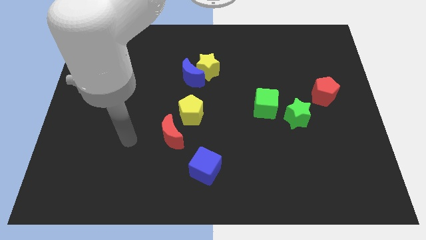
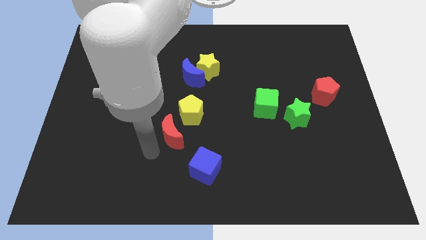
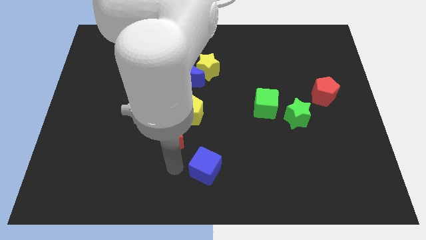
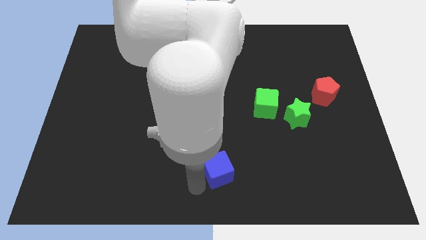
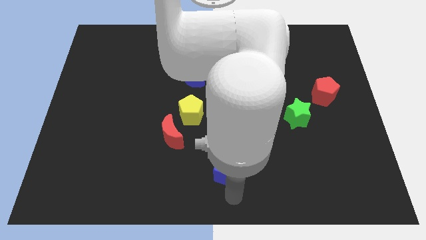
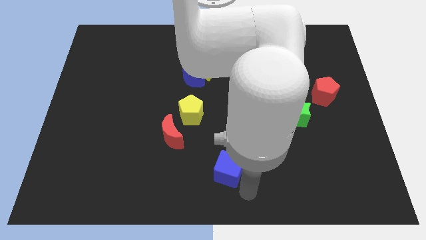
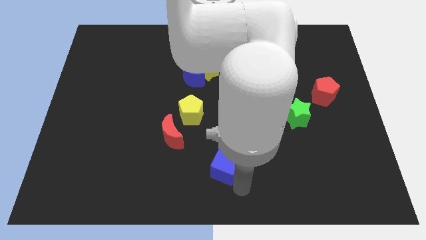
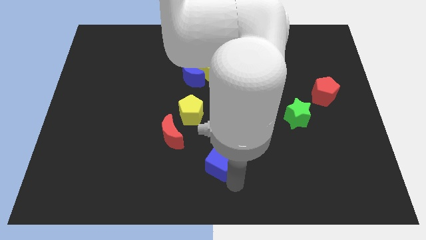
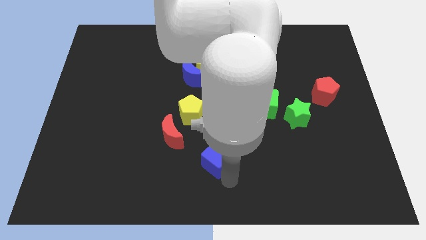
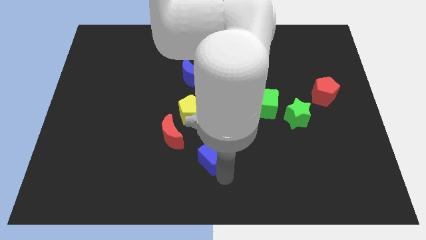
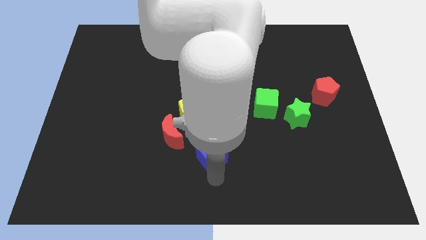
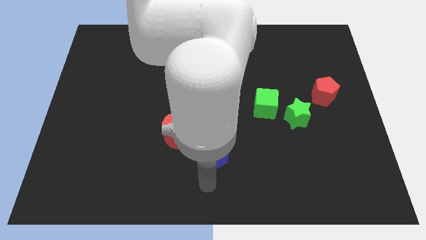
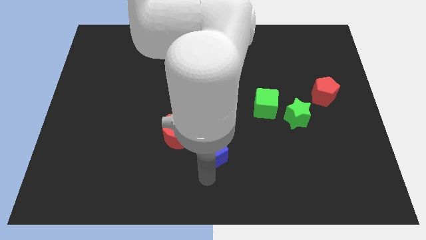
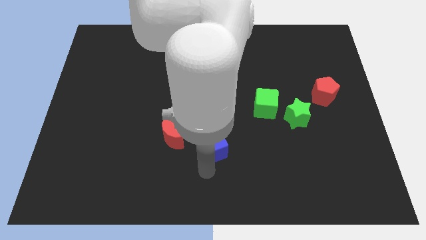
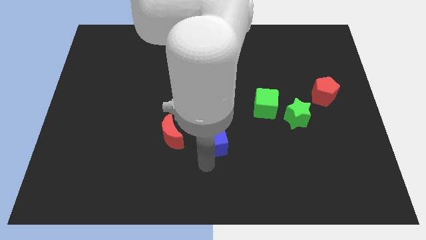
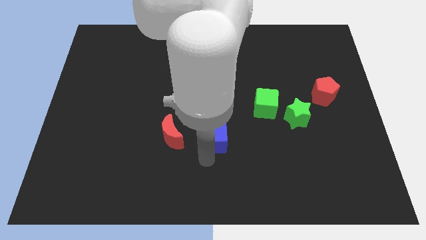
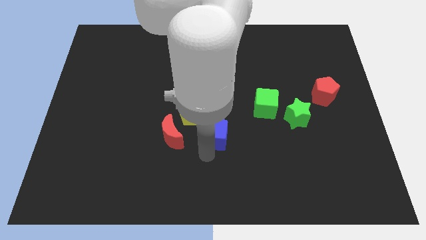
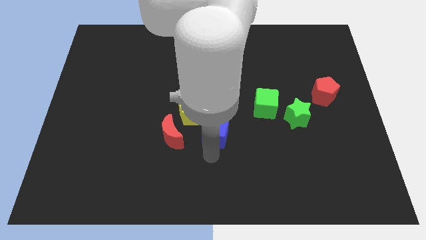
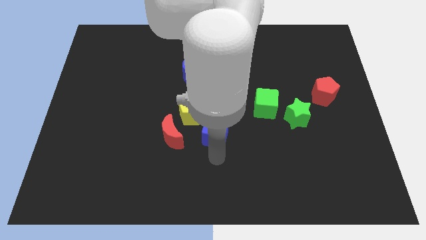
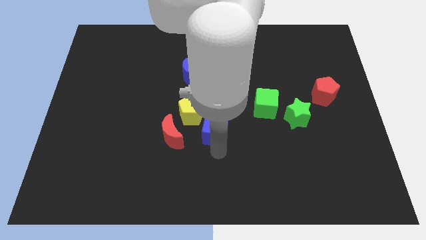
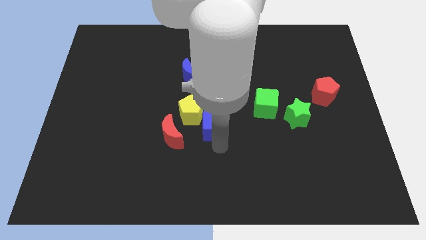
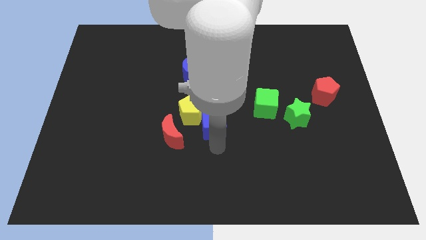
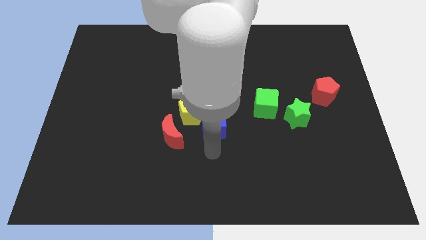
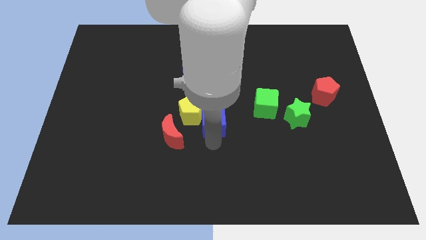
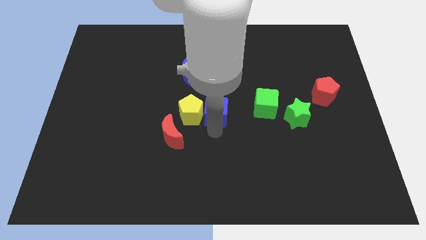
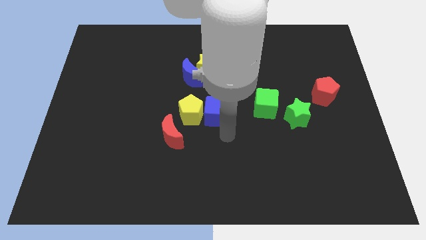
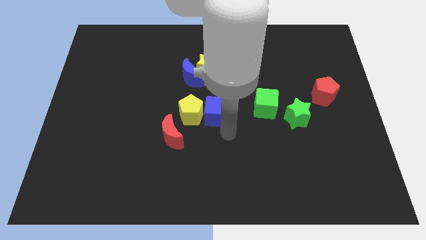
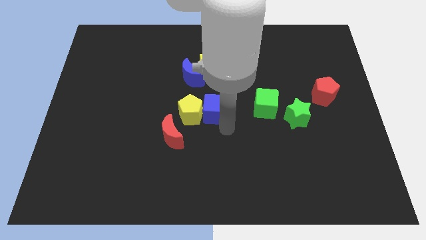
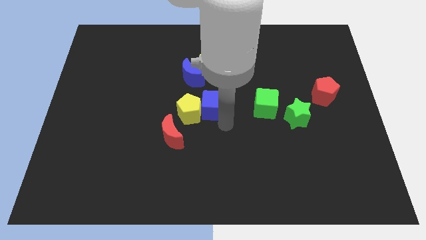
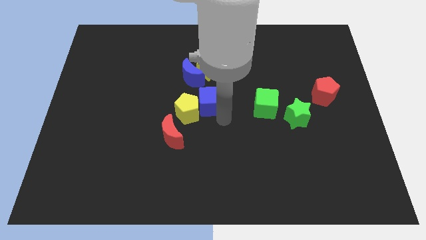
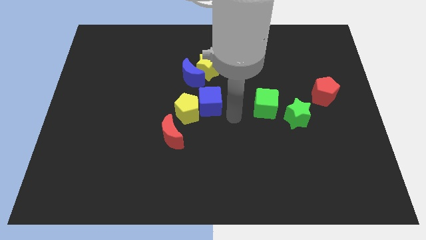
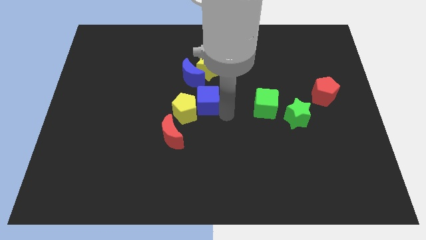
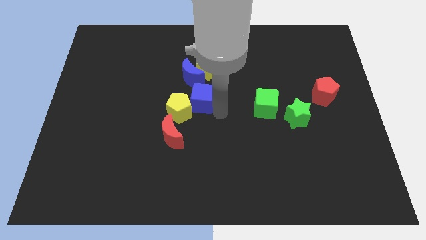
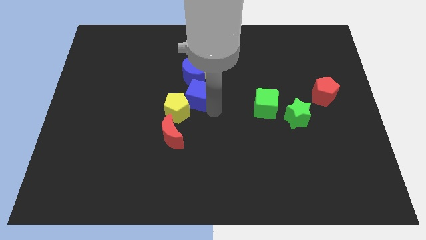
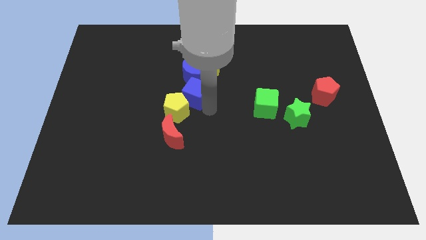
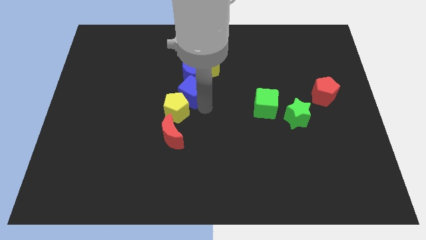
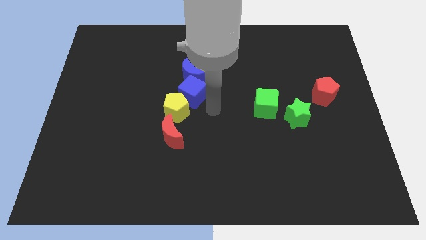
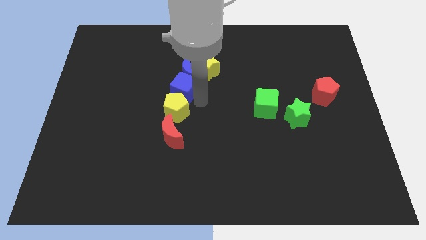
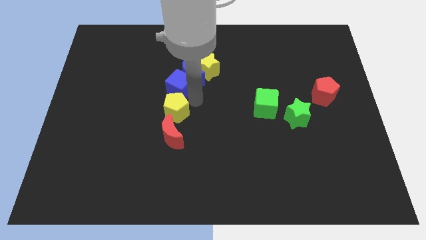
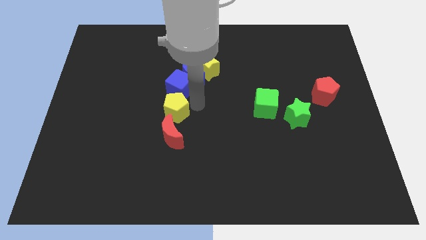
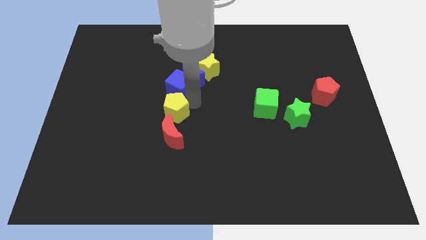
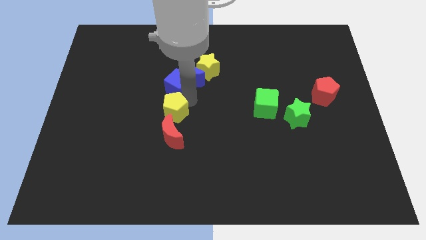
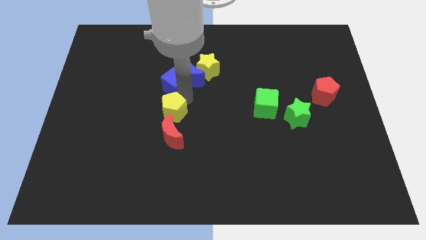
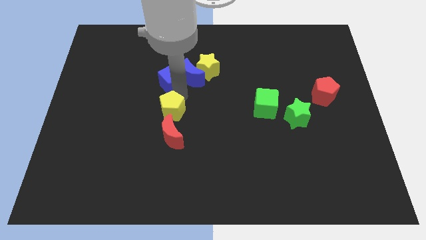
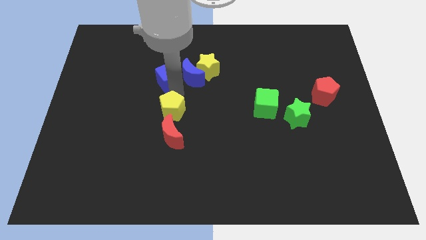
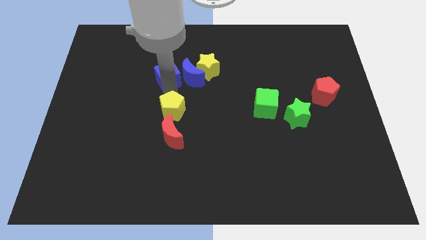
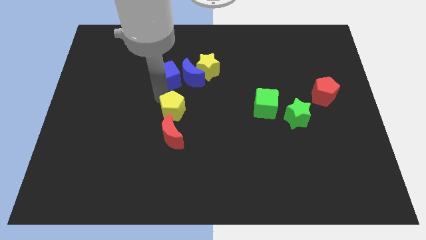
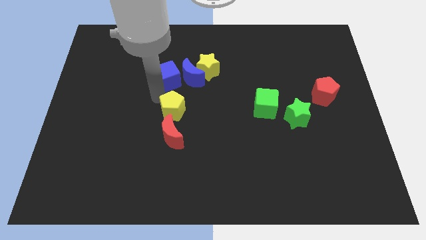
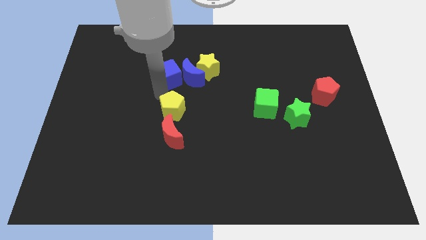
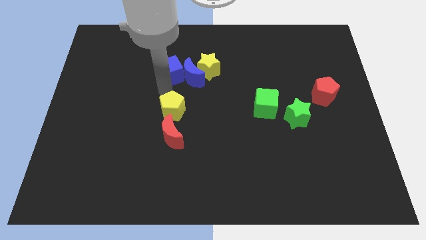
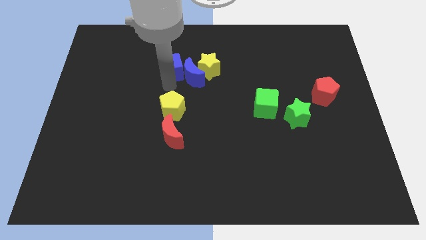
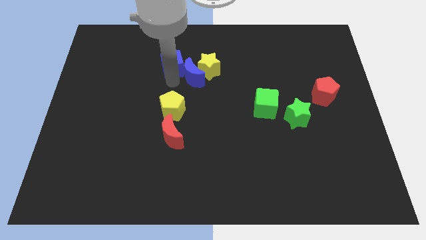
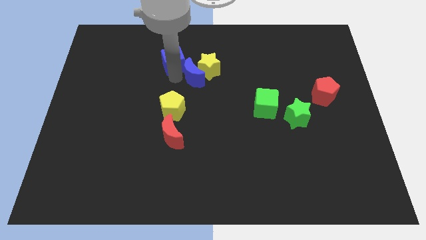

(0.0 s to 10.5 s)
push the blue cube diagonally up and to the left of the yellow star

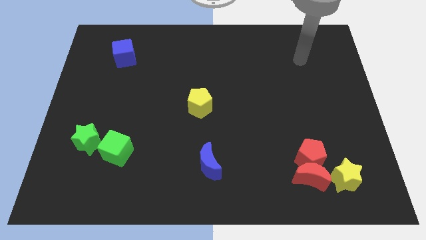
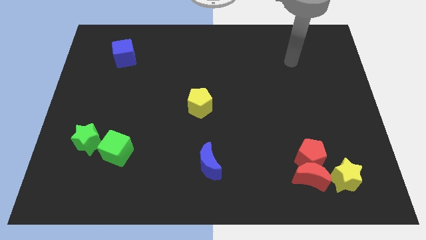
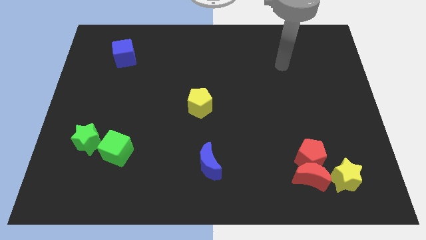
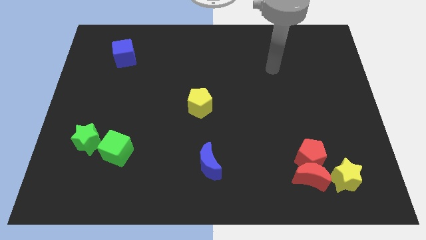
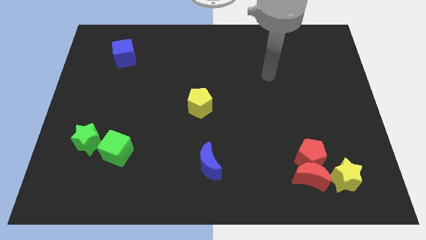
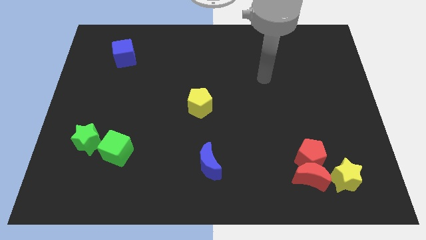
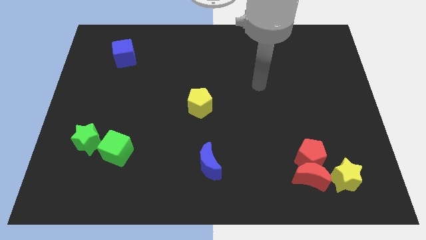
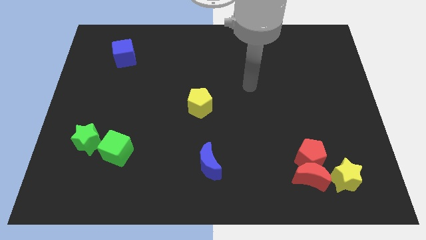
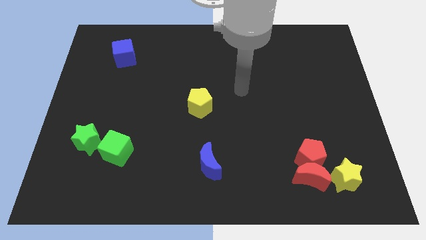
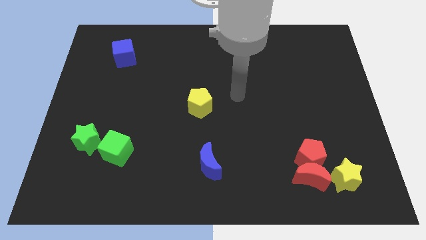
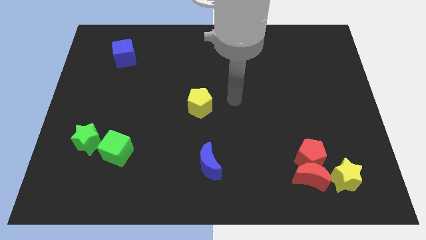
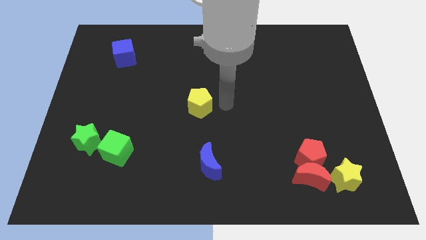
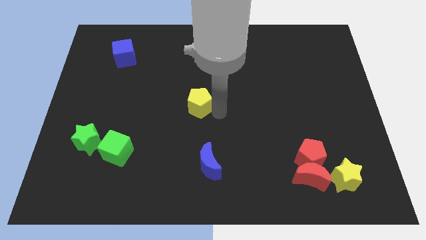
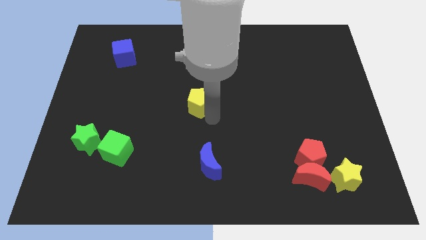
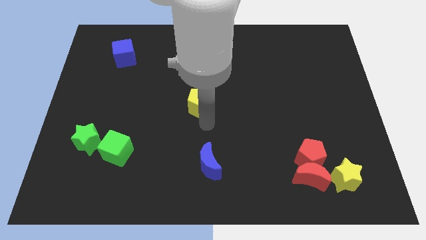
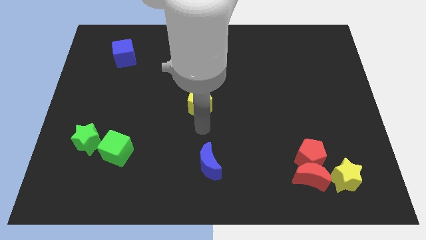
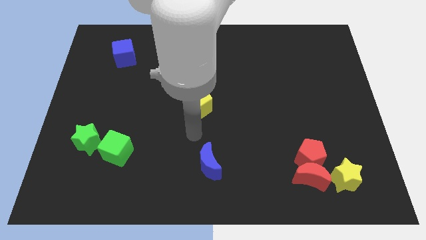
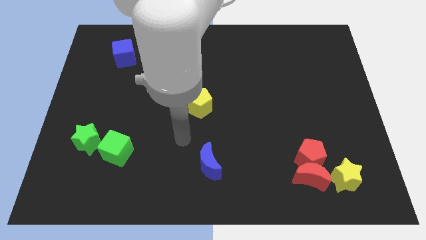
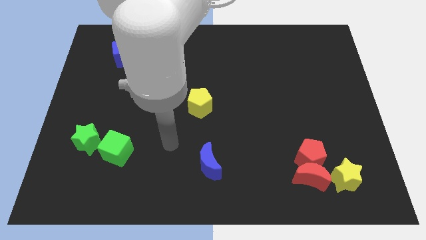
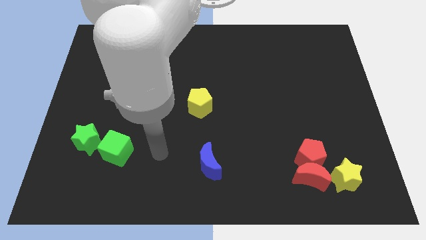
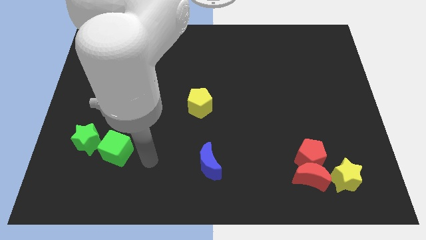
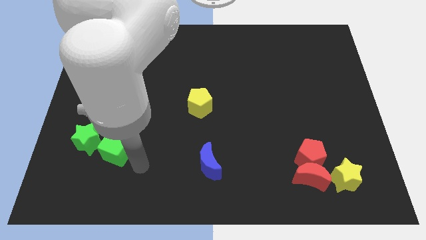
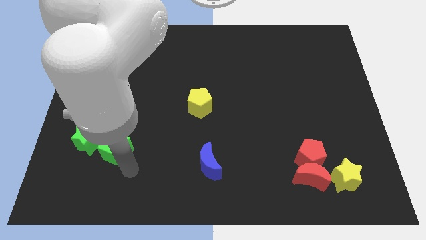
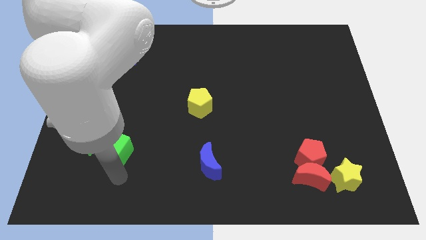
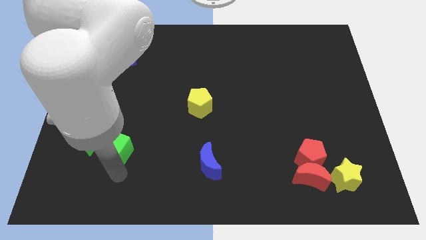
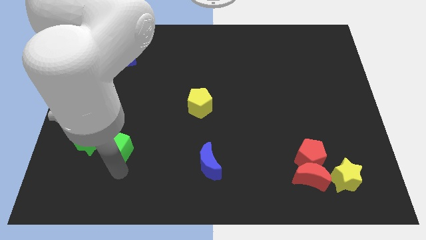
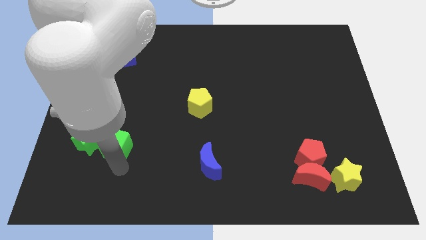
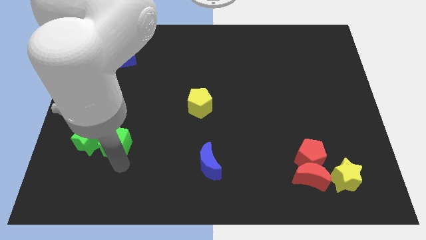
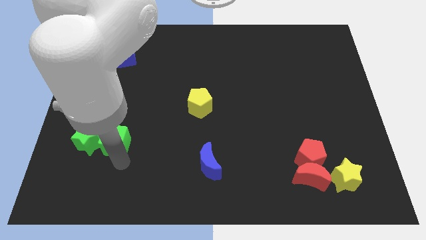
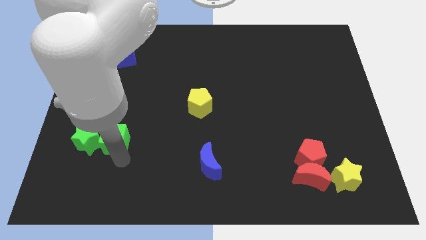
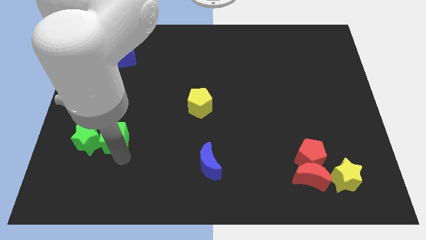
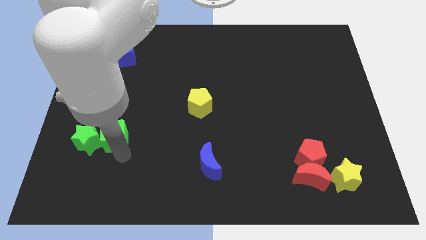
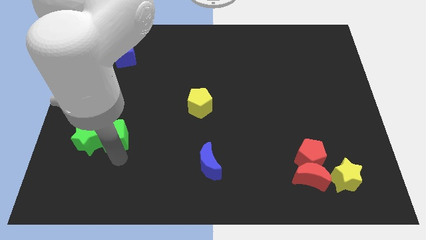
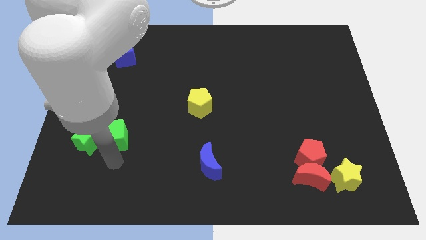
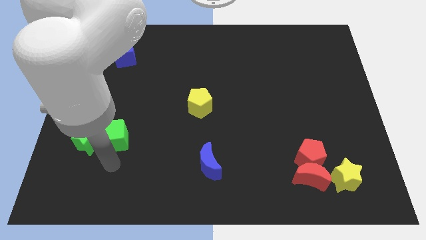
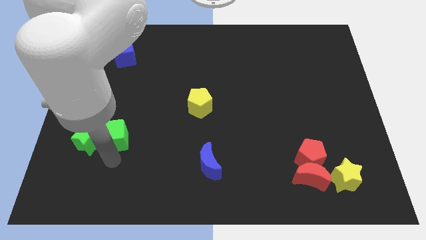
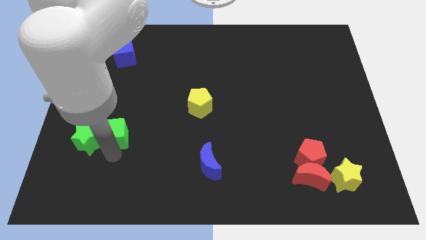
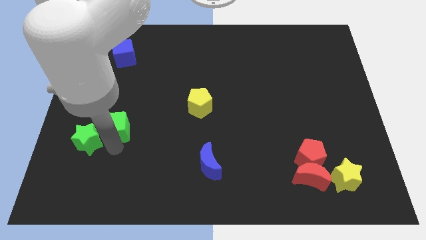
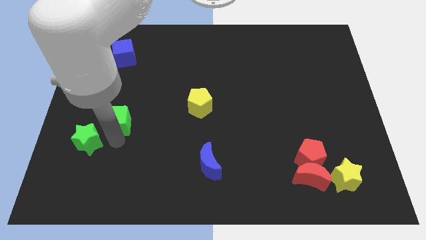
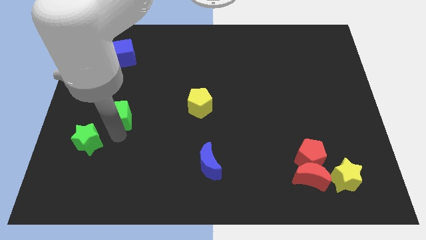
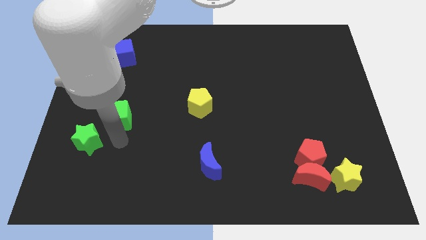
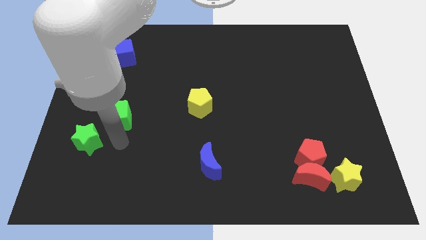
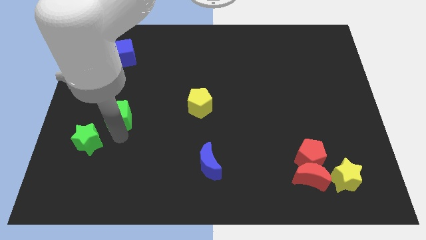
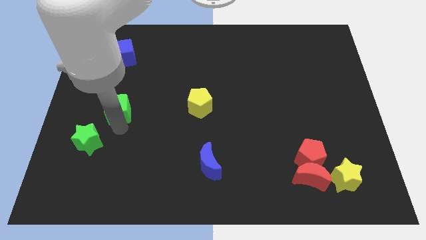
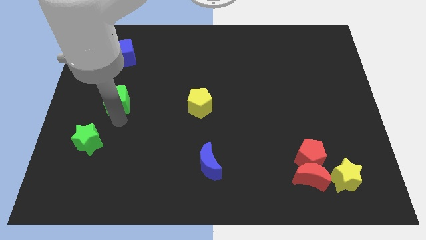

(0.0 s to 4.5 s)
push the green cube below the blue cube
